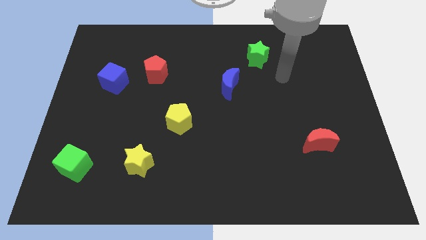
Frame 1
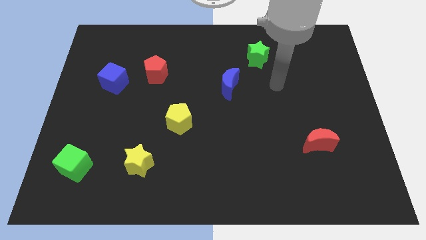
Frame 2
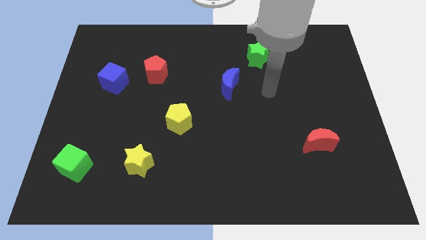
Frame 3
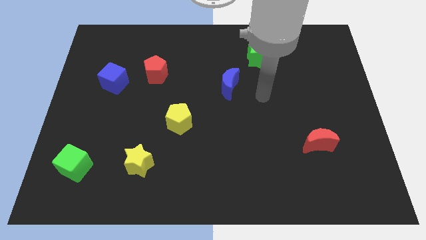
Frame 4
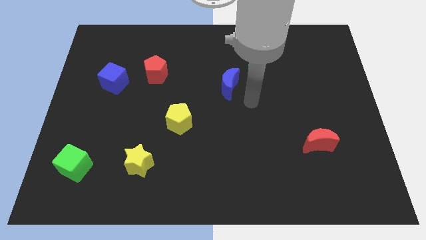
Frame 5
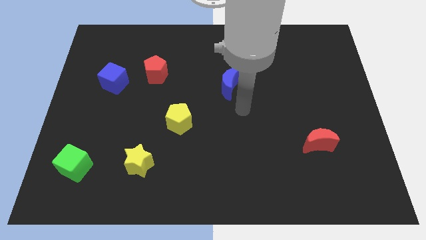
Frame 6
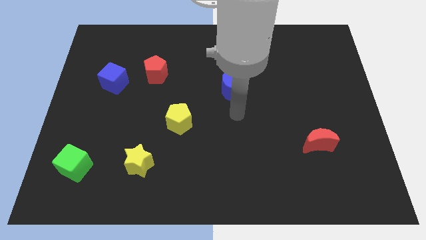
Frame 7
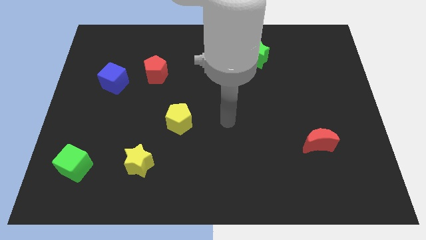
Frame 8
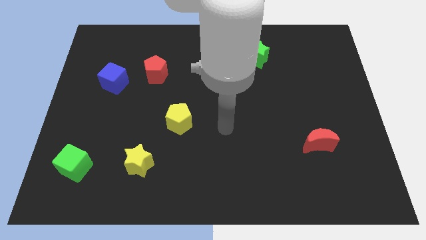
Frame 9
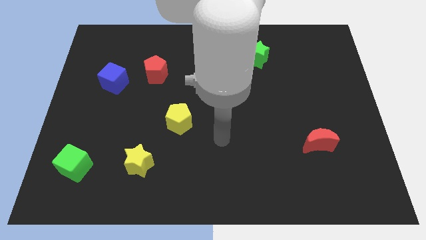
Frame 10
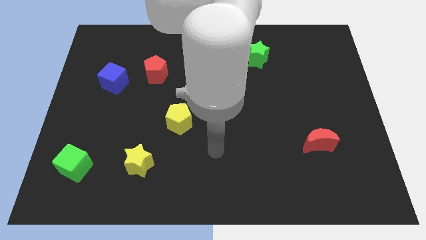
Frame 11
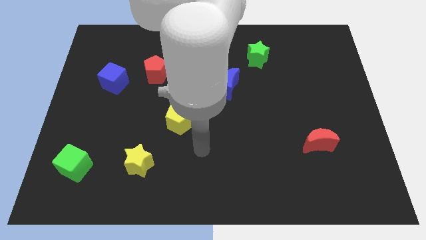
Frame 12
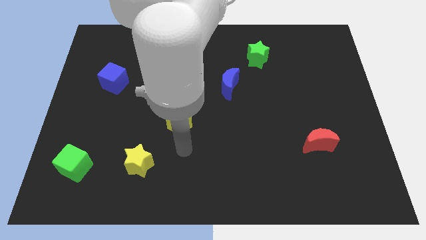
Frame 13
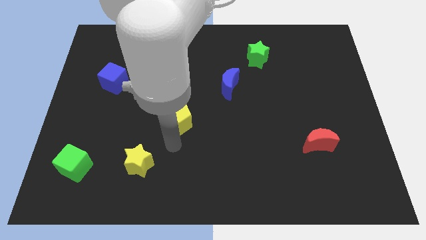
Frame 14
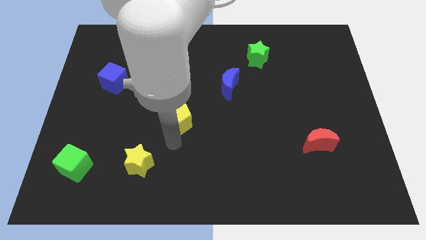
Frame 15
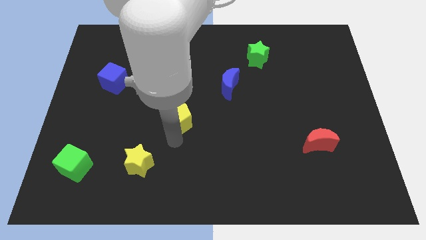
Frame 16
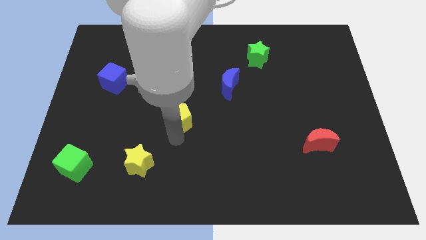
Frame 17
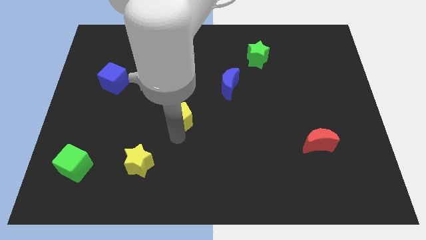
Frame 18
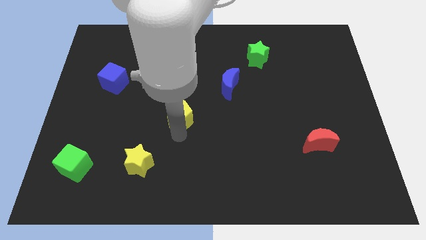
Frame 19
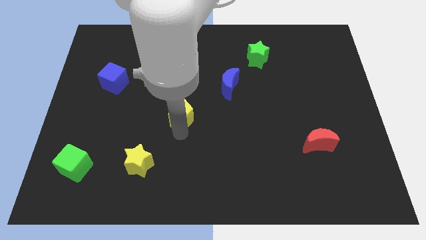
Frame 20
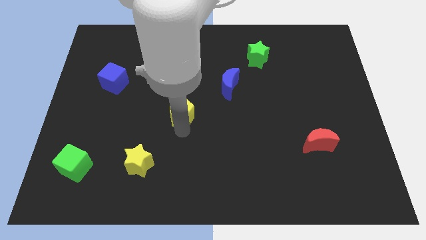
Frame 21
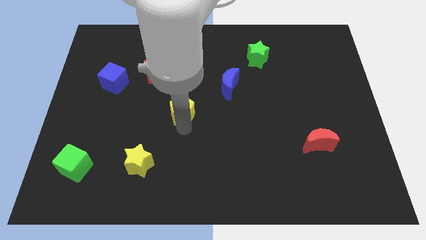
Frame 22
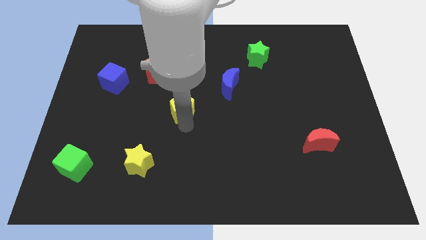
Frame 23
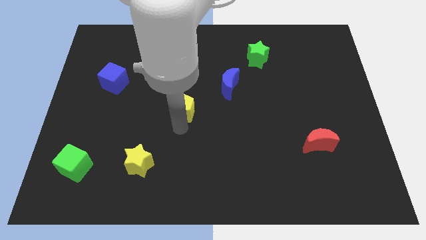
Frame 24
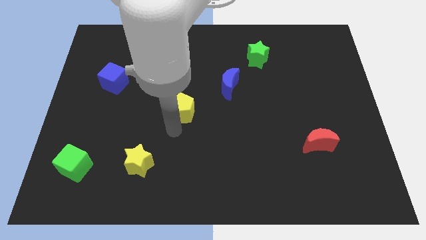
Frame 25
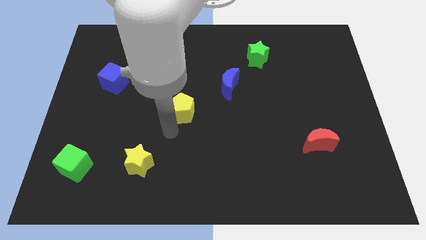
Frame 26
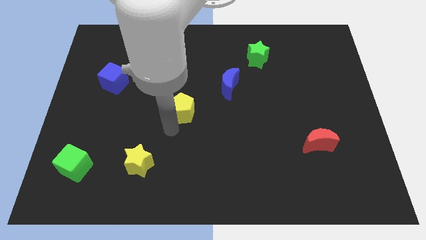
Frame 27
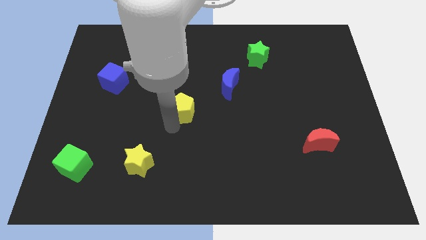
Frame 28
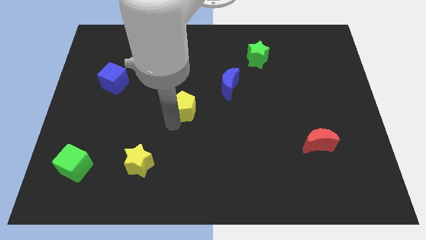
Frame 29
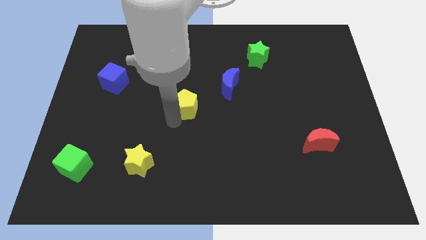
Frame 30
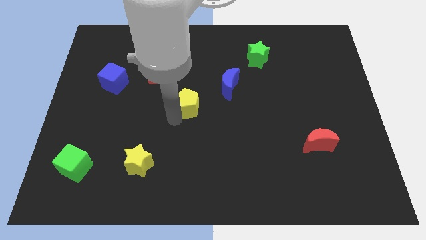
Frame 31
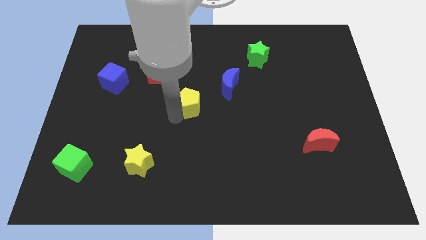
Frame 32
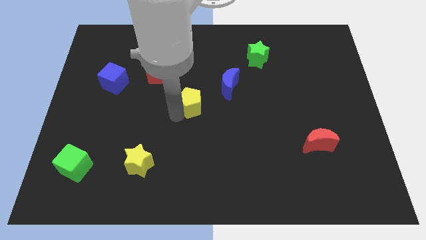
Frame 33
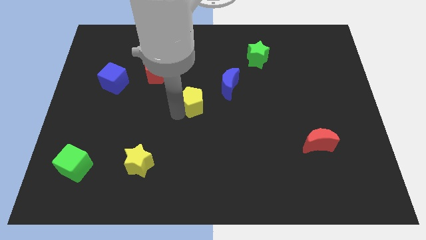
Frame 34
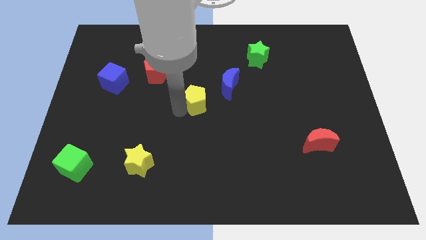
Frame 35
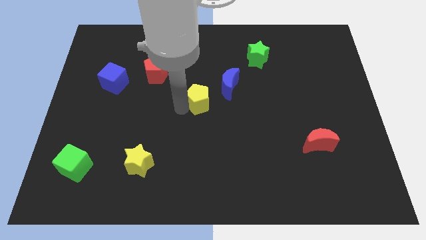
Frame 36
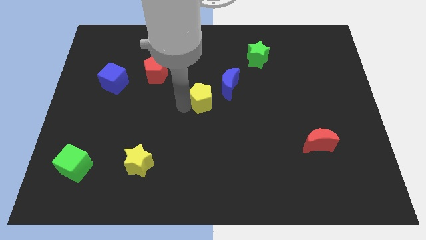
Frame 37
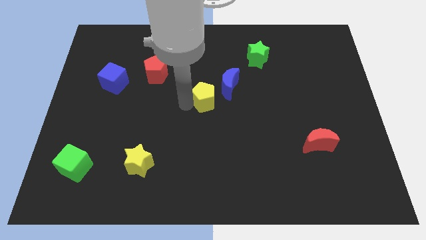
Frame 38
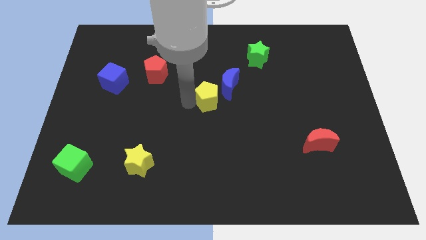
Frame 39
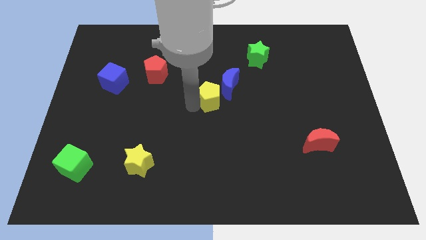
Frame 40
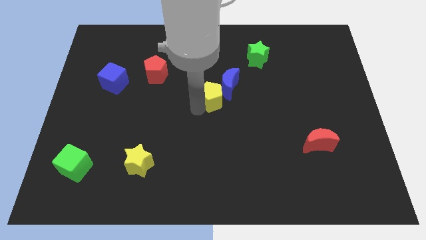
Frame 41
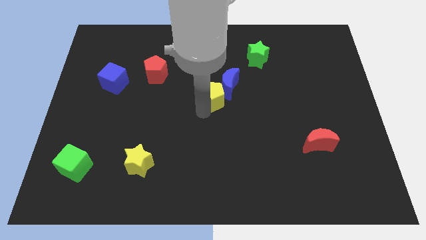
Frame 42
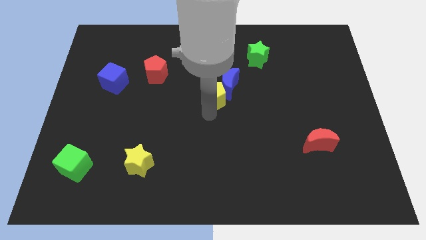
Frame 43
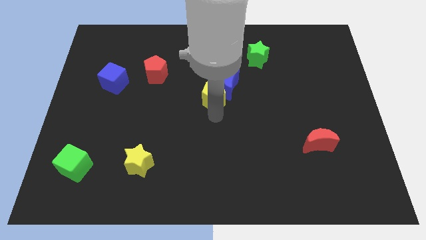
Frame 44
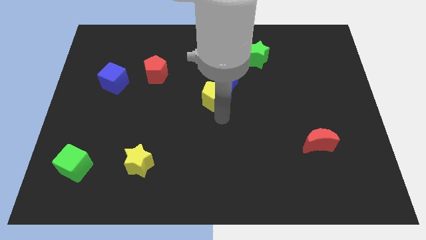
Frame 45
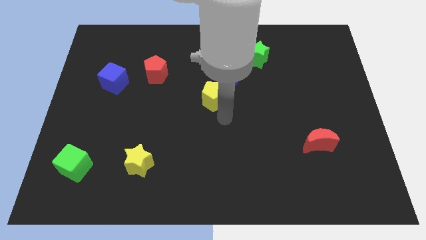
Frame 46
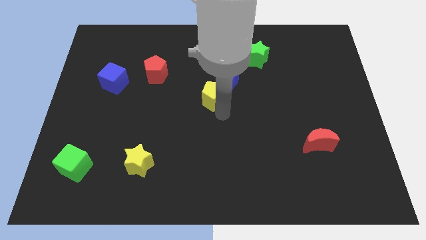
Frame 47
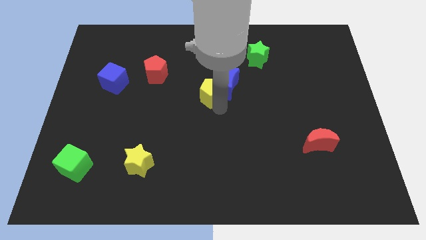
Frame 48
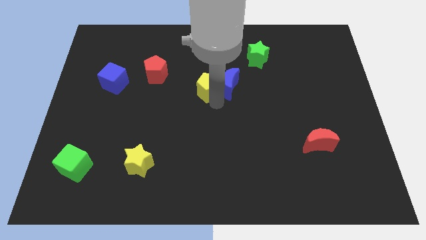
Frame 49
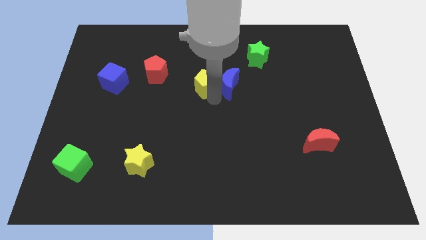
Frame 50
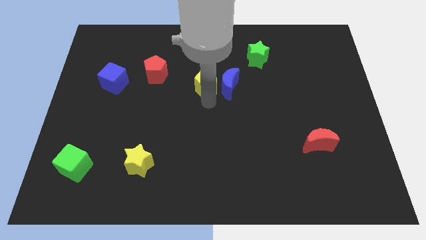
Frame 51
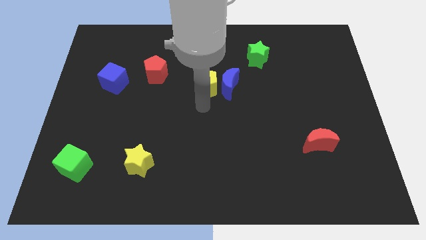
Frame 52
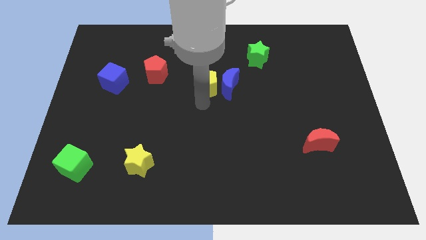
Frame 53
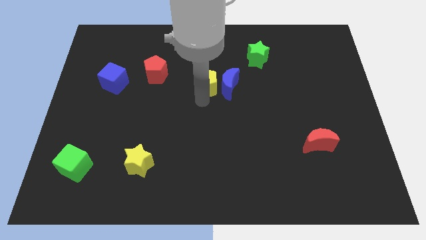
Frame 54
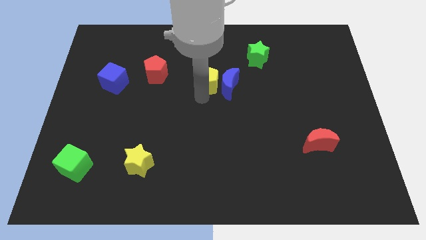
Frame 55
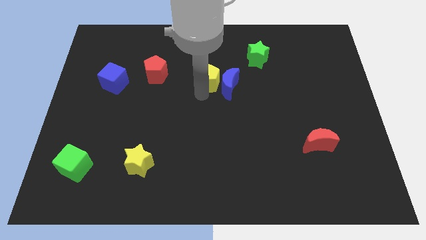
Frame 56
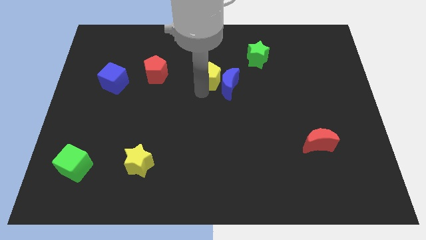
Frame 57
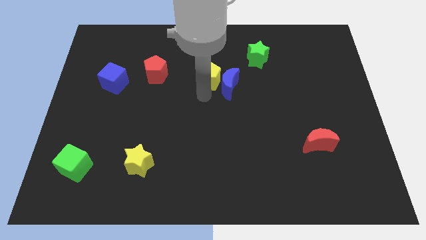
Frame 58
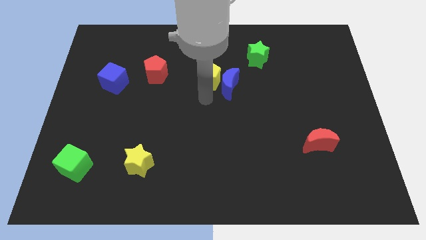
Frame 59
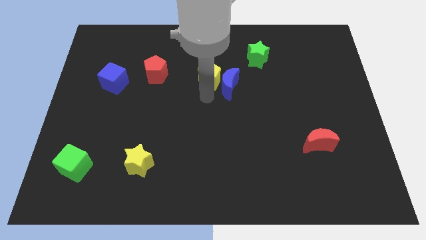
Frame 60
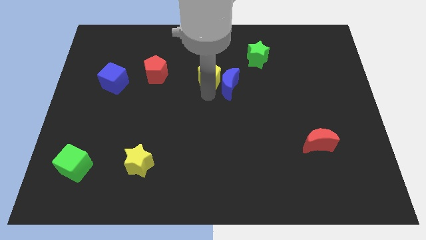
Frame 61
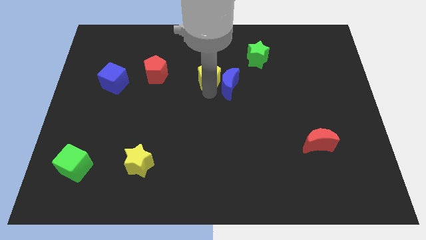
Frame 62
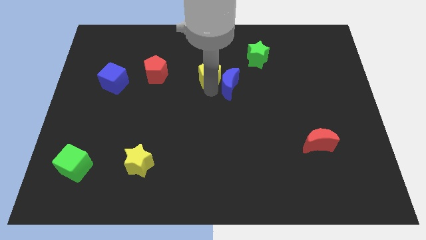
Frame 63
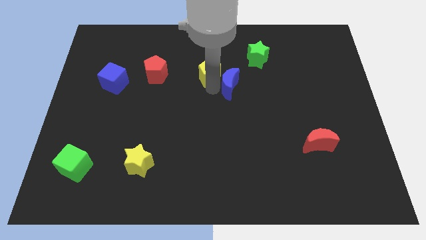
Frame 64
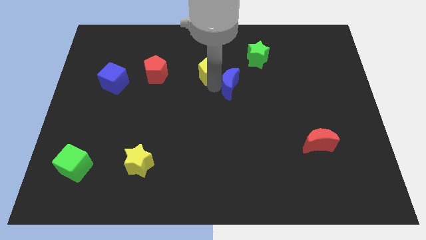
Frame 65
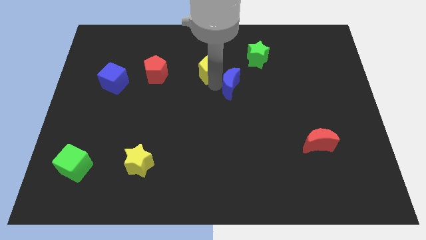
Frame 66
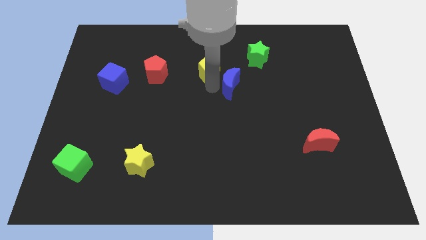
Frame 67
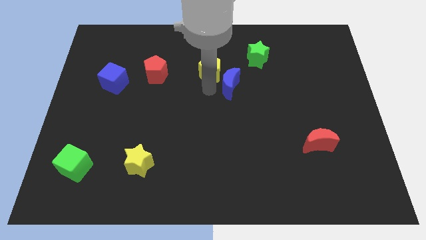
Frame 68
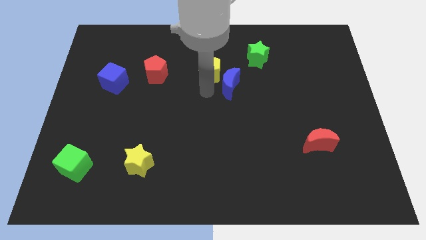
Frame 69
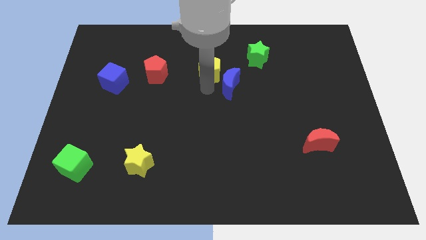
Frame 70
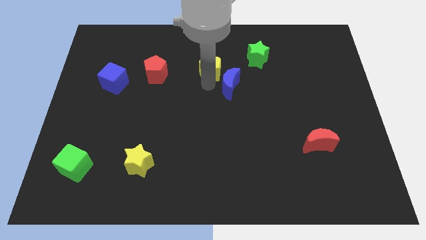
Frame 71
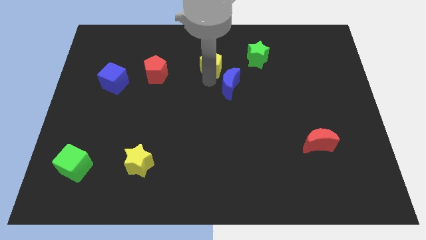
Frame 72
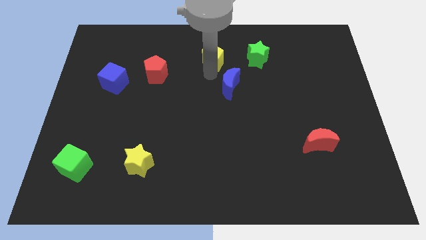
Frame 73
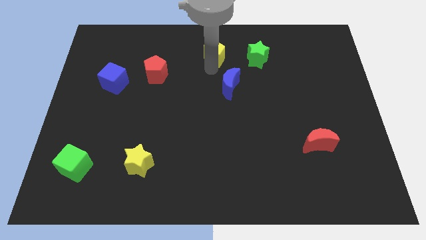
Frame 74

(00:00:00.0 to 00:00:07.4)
push the yellow pentagon to the top side
